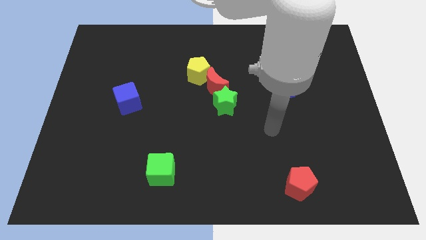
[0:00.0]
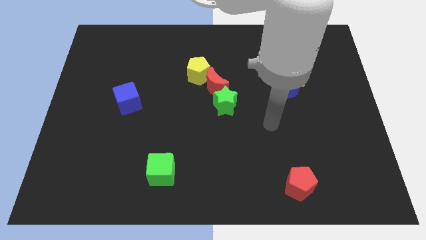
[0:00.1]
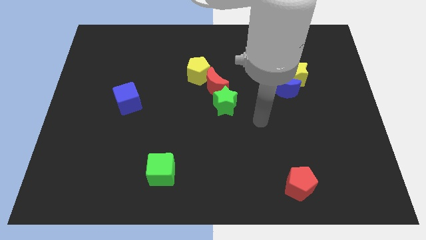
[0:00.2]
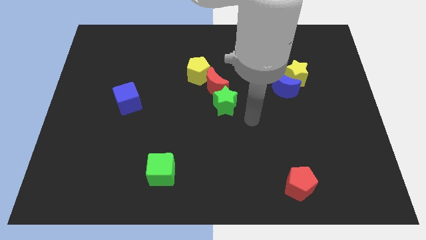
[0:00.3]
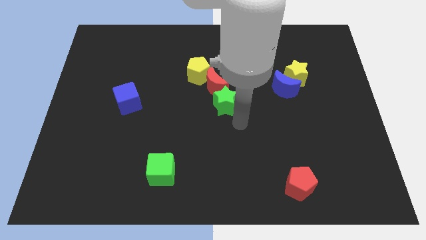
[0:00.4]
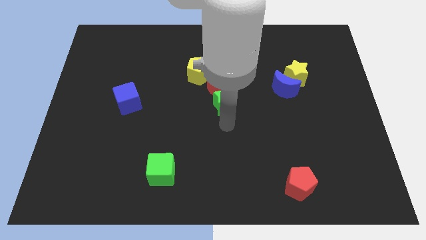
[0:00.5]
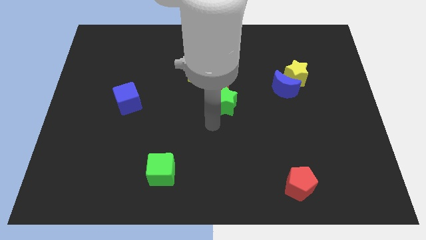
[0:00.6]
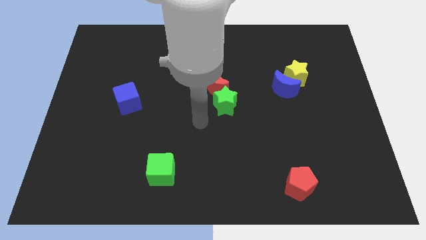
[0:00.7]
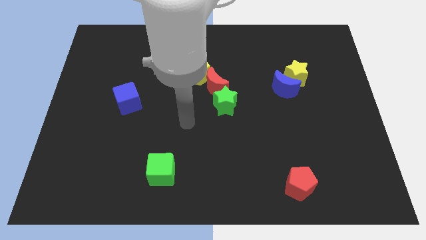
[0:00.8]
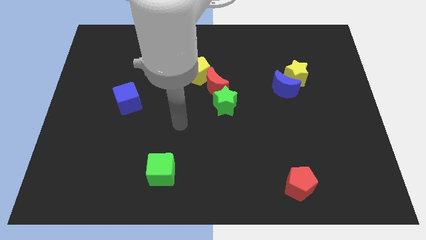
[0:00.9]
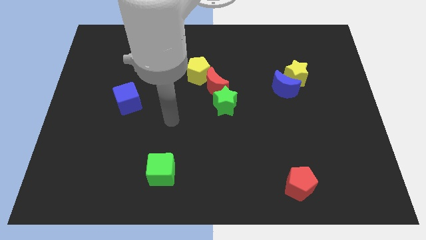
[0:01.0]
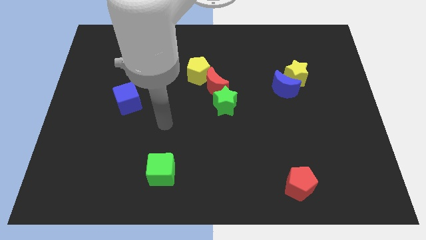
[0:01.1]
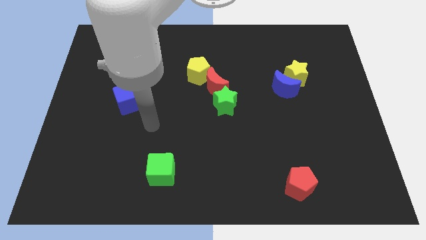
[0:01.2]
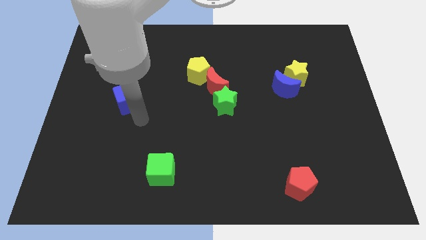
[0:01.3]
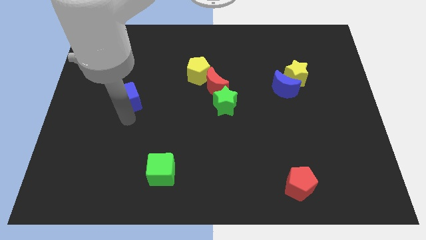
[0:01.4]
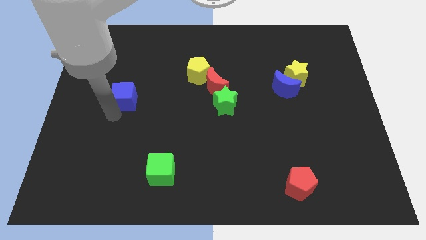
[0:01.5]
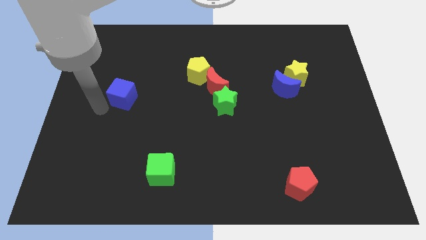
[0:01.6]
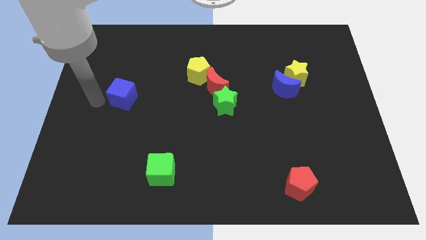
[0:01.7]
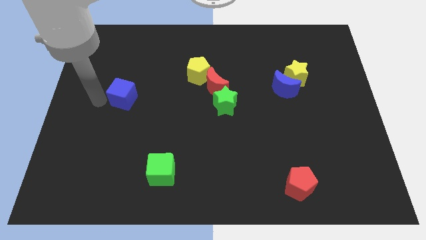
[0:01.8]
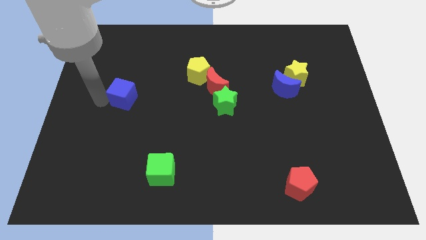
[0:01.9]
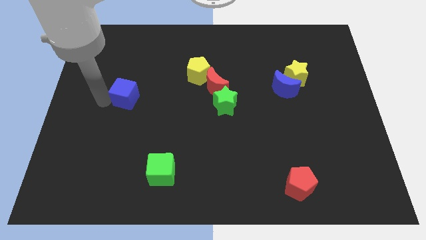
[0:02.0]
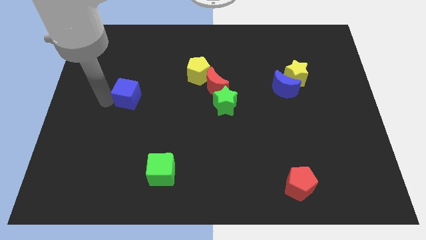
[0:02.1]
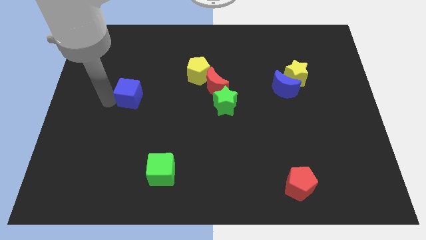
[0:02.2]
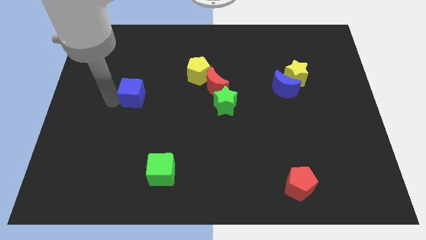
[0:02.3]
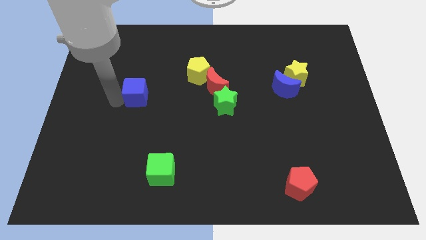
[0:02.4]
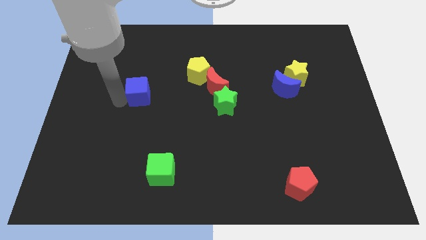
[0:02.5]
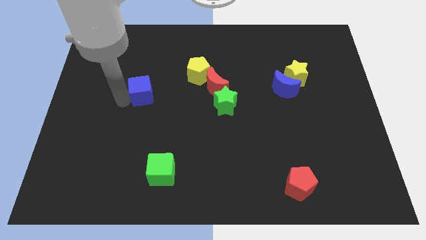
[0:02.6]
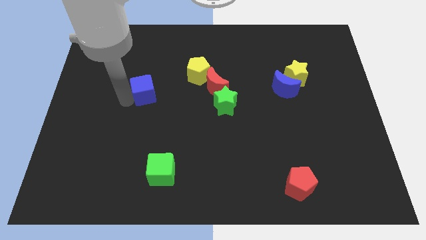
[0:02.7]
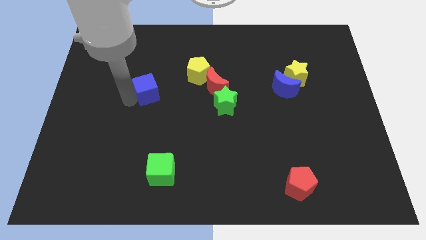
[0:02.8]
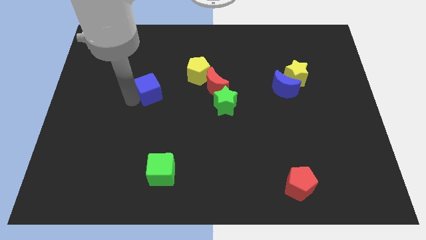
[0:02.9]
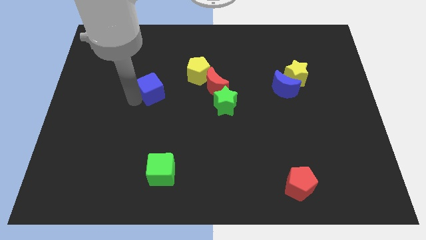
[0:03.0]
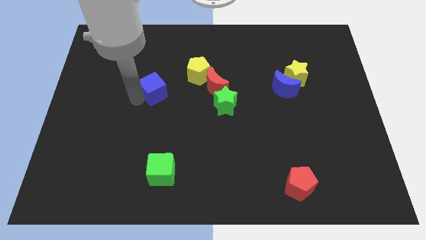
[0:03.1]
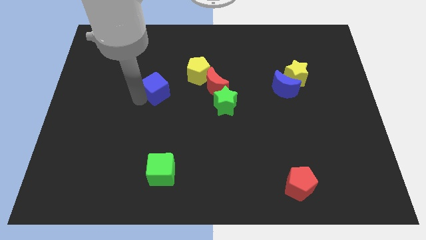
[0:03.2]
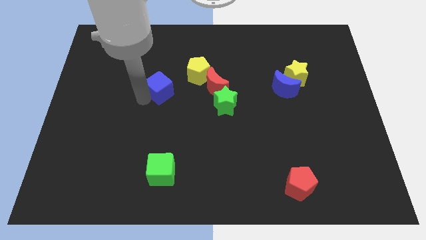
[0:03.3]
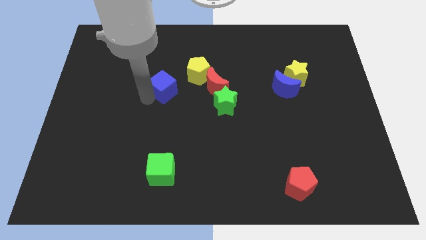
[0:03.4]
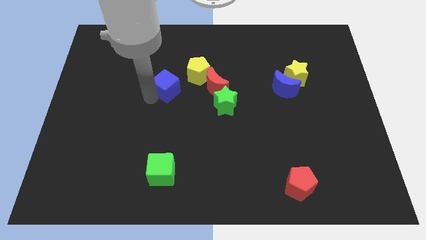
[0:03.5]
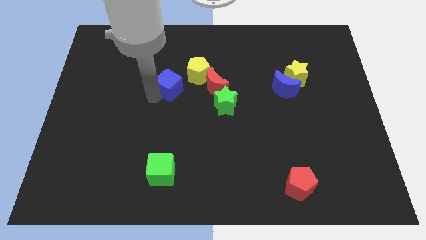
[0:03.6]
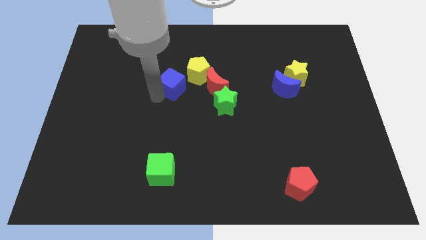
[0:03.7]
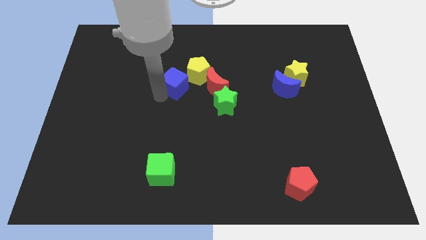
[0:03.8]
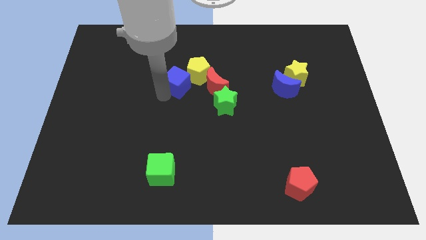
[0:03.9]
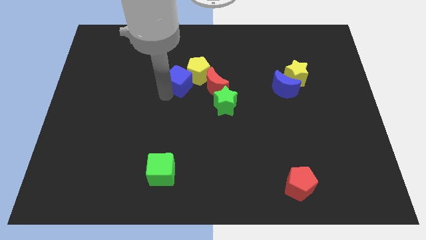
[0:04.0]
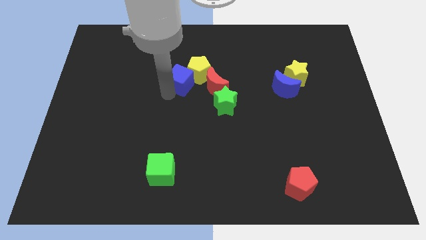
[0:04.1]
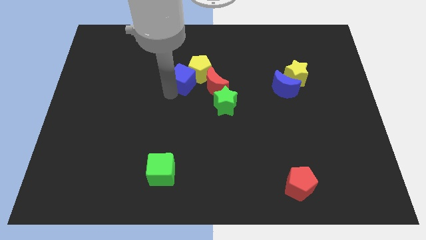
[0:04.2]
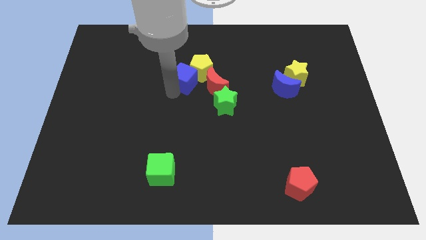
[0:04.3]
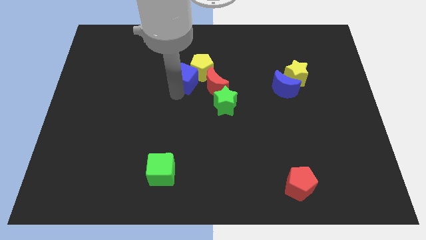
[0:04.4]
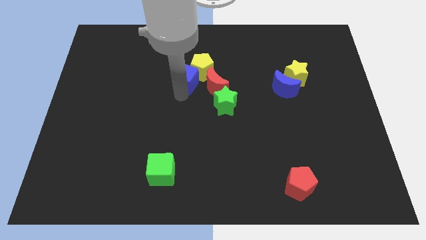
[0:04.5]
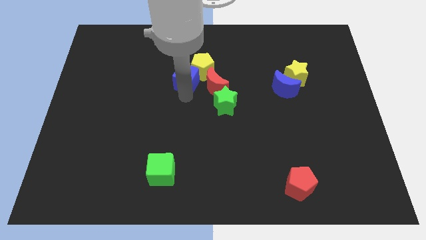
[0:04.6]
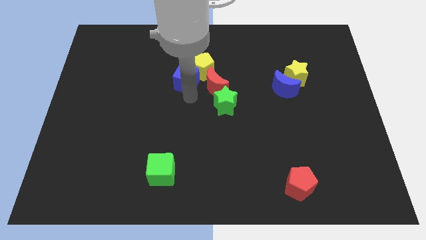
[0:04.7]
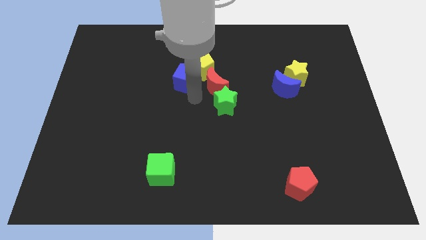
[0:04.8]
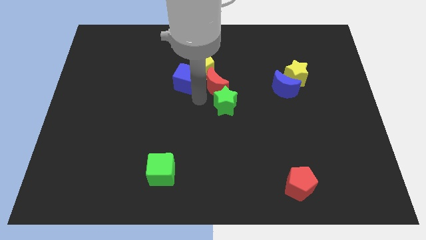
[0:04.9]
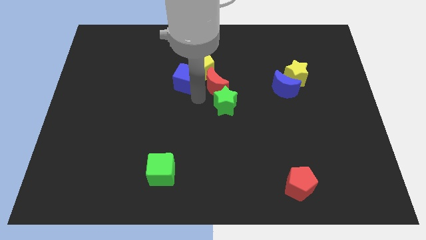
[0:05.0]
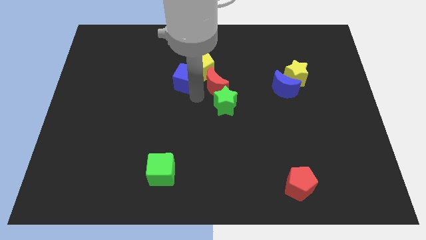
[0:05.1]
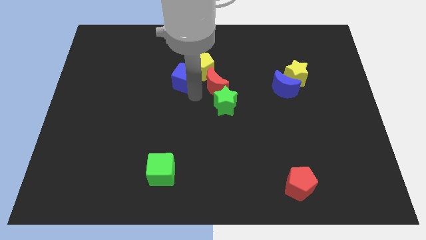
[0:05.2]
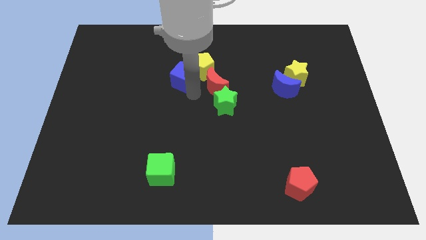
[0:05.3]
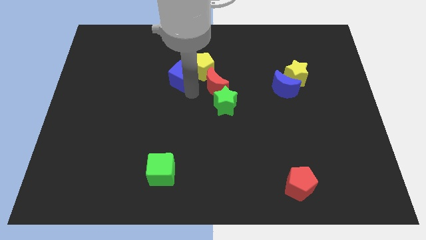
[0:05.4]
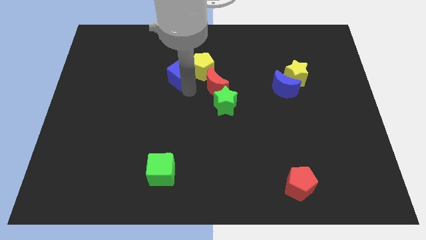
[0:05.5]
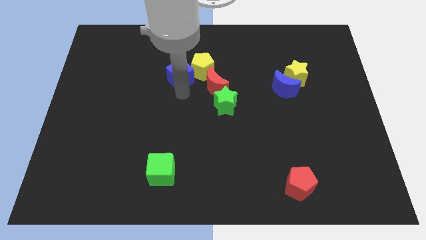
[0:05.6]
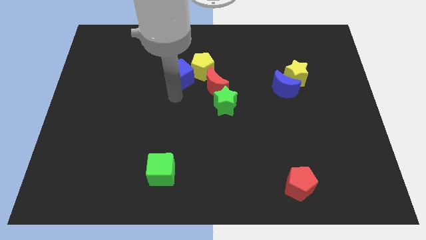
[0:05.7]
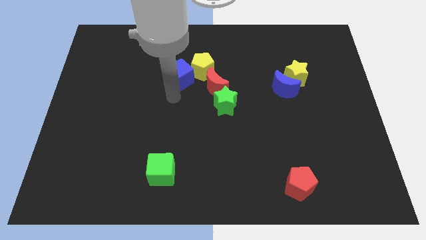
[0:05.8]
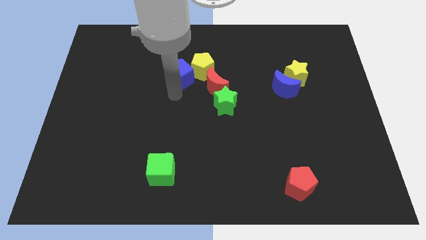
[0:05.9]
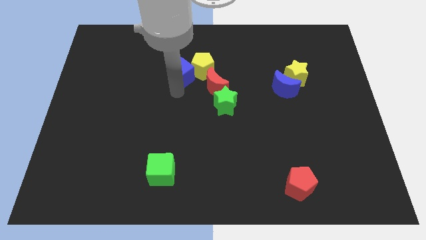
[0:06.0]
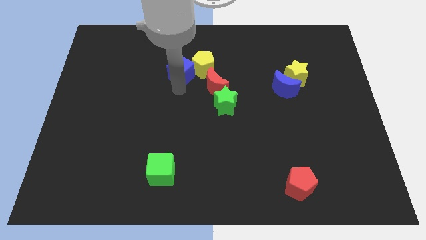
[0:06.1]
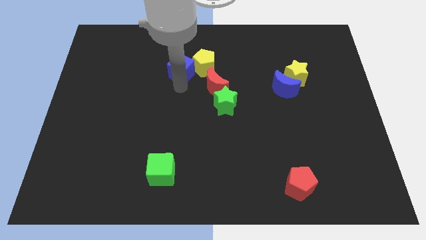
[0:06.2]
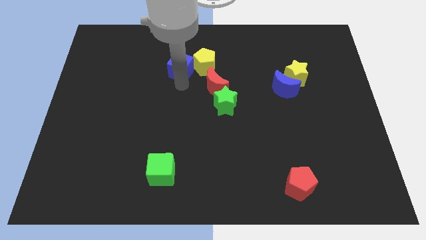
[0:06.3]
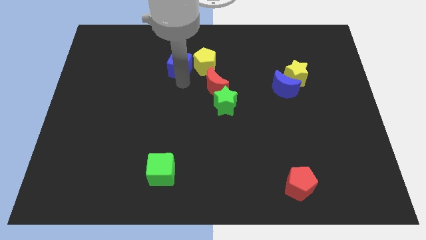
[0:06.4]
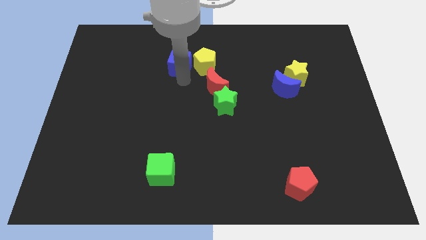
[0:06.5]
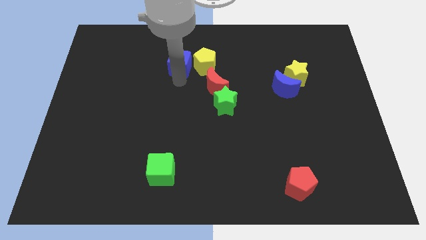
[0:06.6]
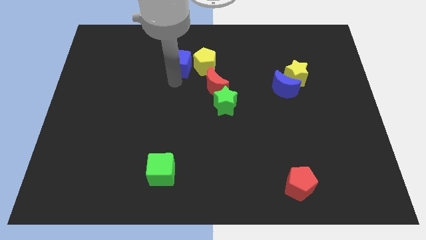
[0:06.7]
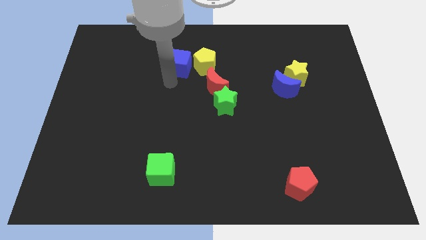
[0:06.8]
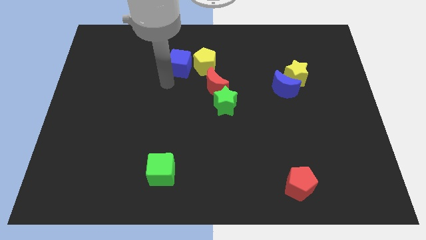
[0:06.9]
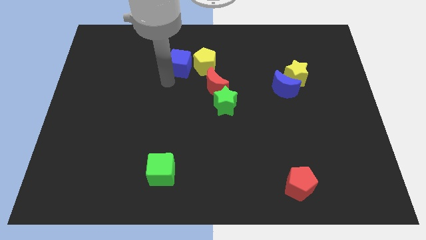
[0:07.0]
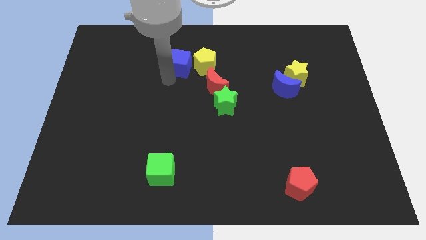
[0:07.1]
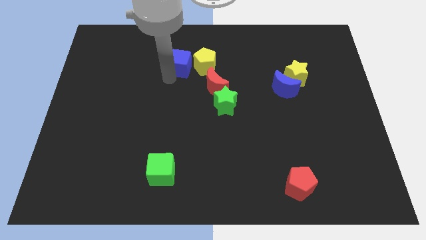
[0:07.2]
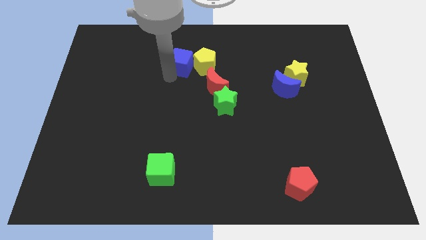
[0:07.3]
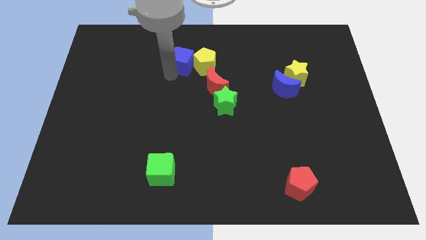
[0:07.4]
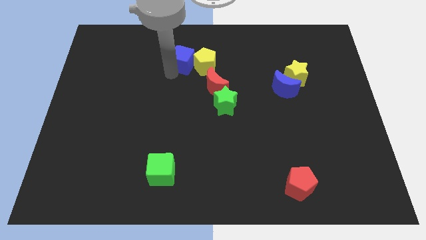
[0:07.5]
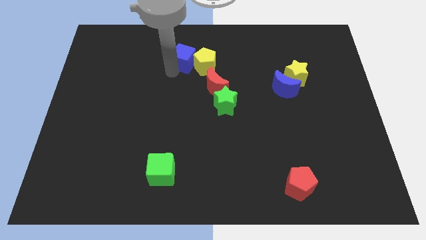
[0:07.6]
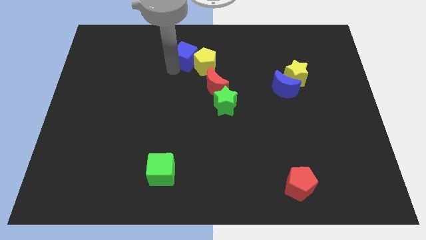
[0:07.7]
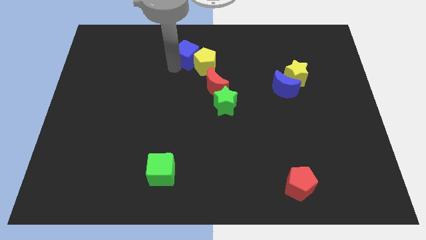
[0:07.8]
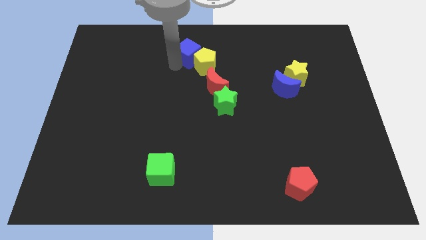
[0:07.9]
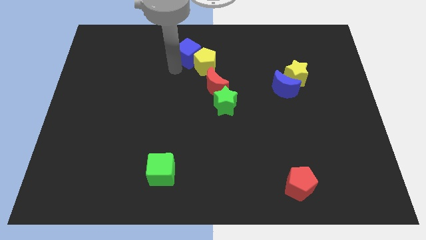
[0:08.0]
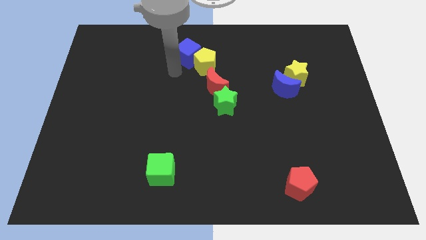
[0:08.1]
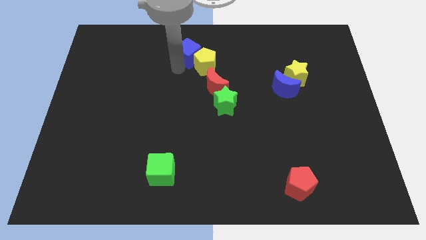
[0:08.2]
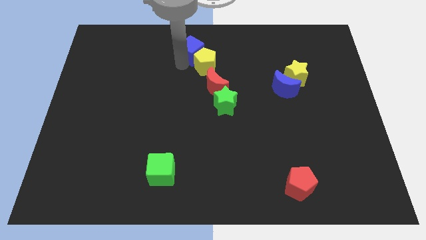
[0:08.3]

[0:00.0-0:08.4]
push the blue cube to the top side
